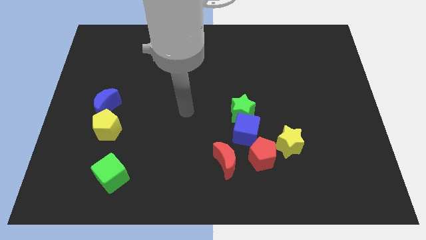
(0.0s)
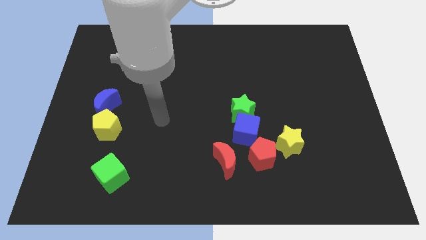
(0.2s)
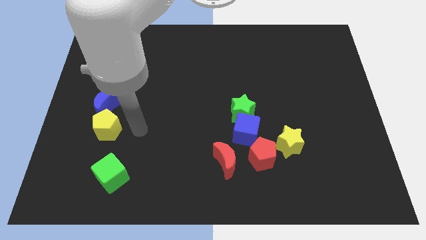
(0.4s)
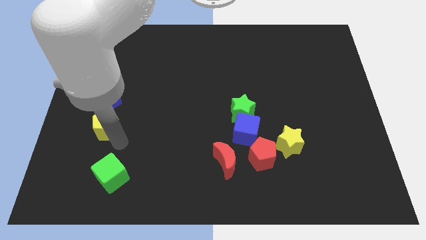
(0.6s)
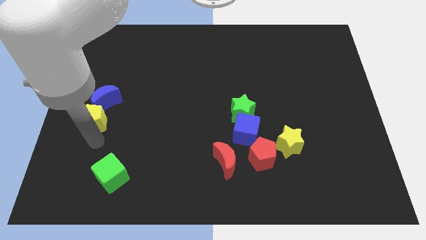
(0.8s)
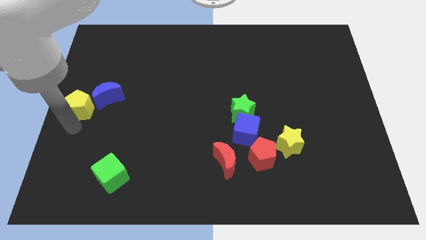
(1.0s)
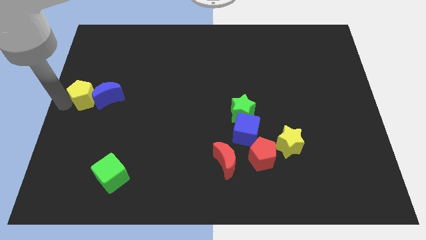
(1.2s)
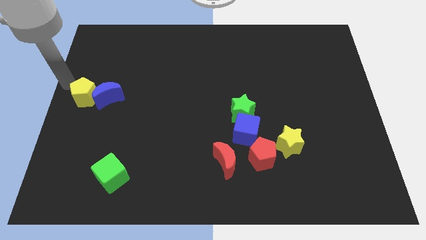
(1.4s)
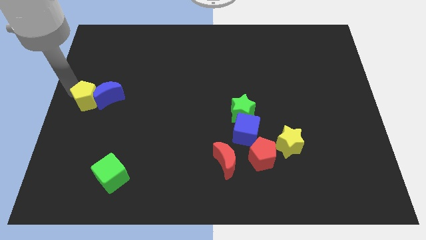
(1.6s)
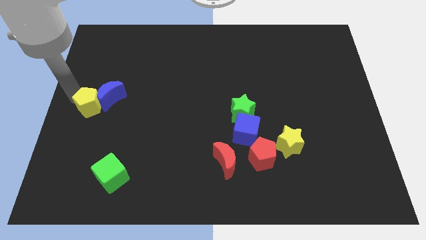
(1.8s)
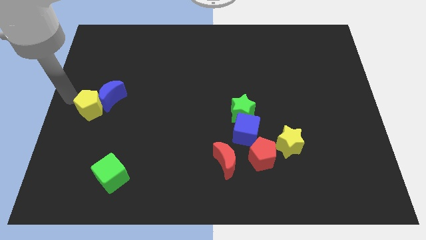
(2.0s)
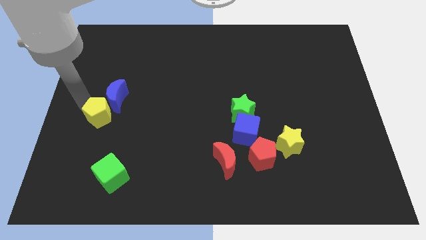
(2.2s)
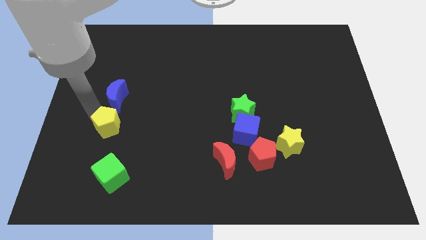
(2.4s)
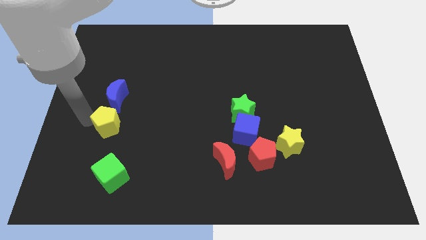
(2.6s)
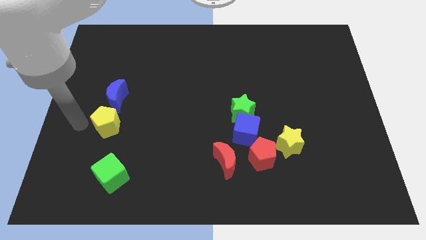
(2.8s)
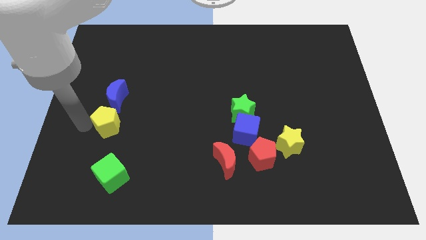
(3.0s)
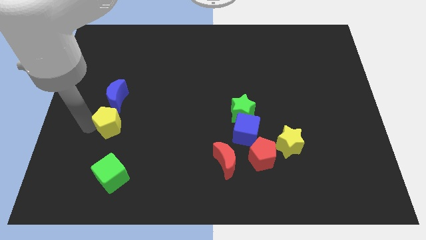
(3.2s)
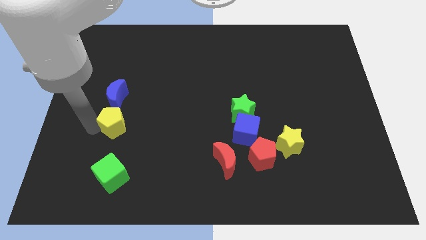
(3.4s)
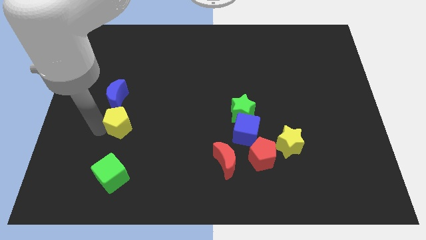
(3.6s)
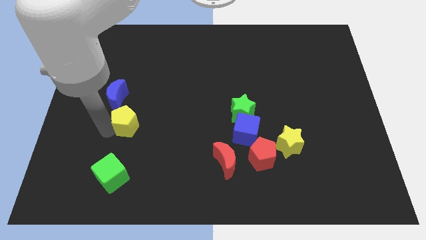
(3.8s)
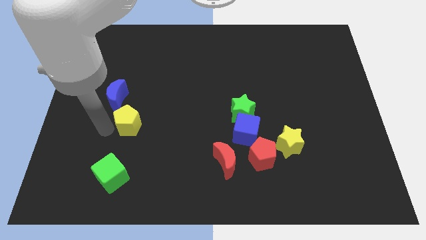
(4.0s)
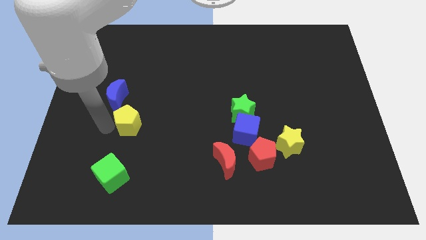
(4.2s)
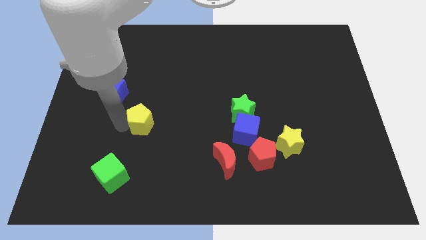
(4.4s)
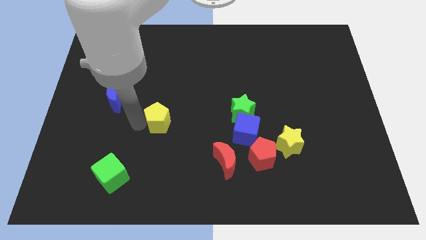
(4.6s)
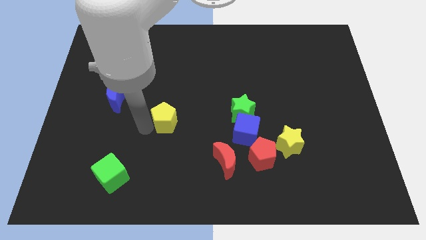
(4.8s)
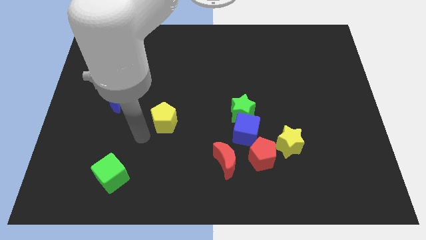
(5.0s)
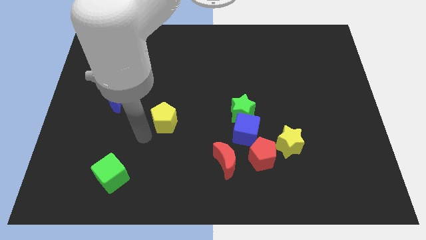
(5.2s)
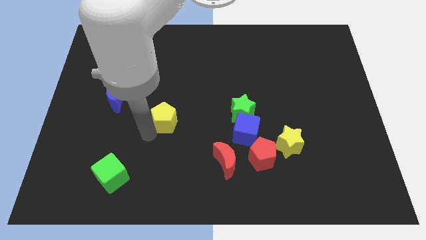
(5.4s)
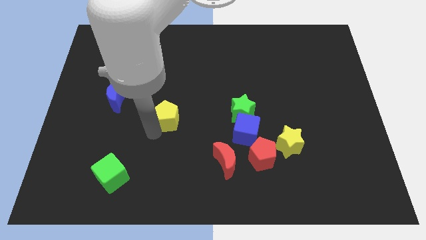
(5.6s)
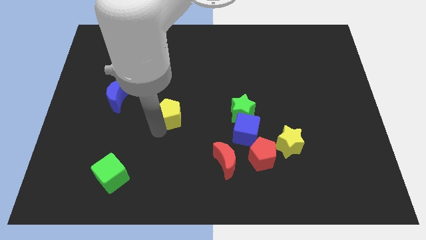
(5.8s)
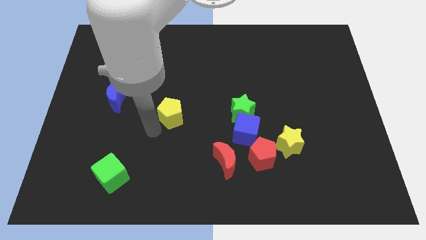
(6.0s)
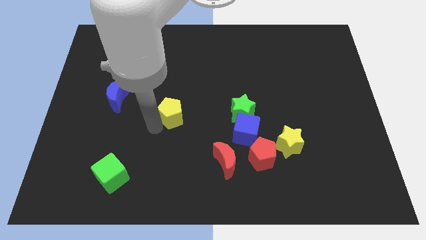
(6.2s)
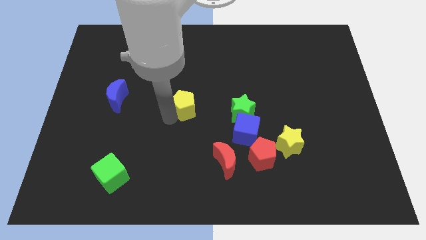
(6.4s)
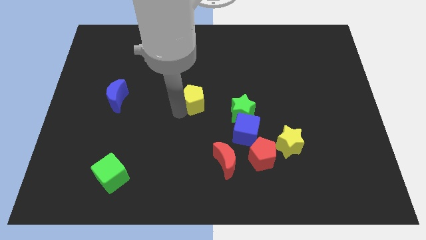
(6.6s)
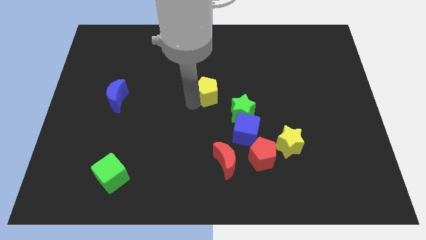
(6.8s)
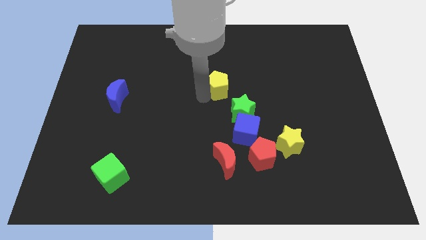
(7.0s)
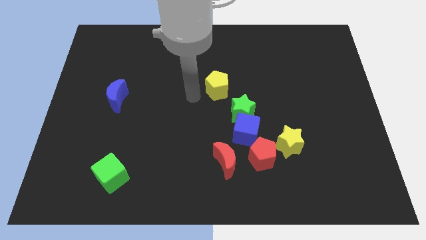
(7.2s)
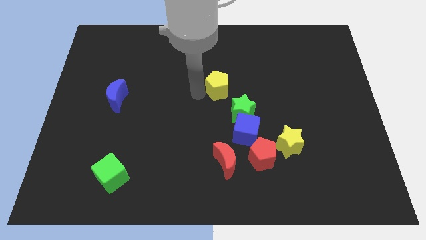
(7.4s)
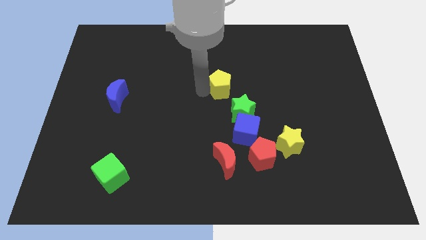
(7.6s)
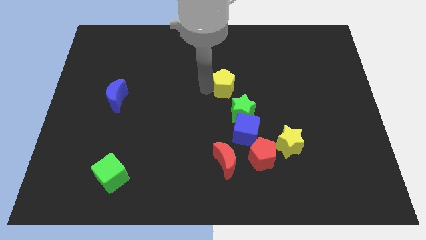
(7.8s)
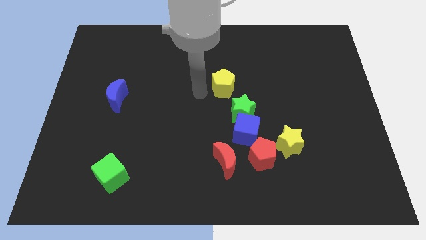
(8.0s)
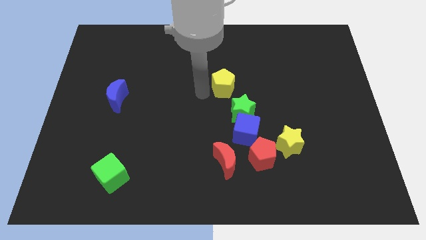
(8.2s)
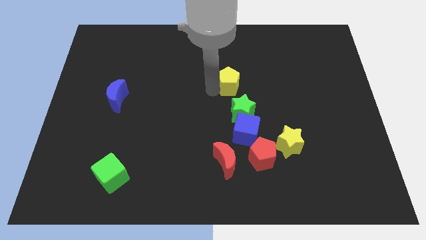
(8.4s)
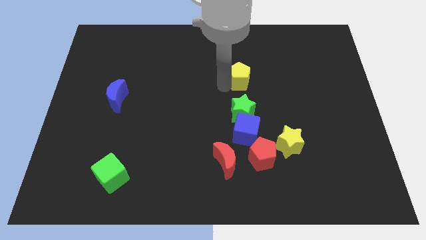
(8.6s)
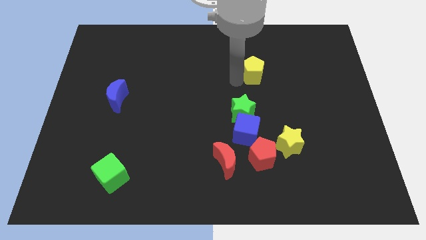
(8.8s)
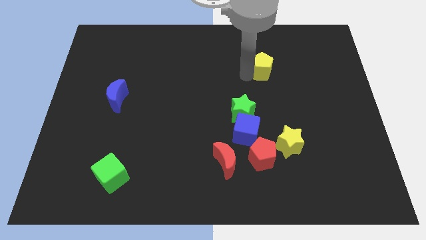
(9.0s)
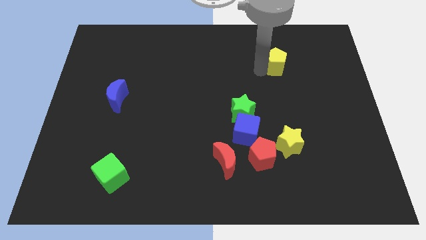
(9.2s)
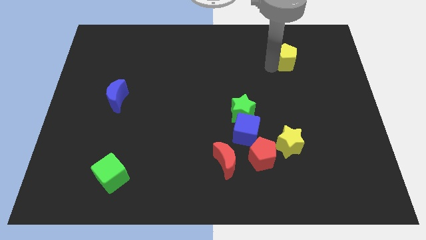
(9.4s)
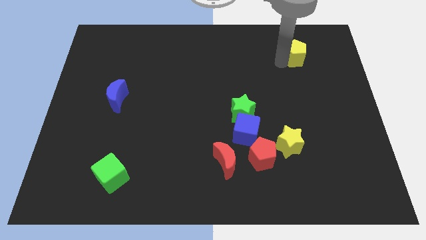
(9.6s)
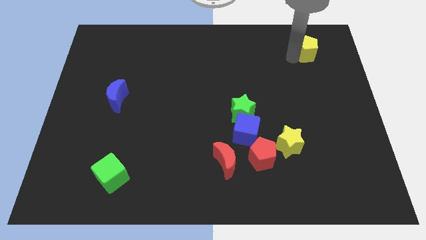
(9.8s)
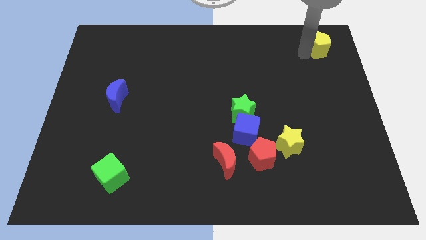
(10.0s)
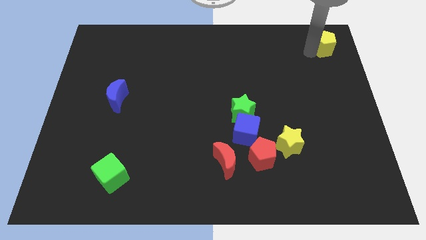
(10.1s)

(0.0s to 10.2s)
put the yellow pentagon to the top right

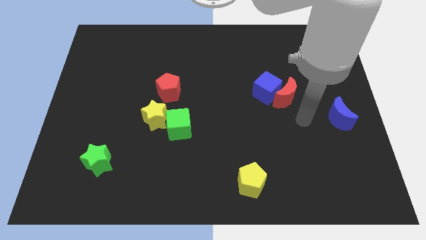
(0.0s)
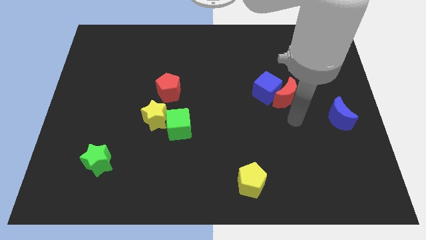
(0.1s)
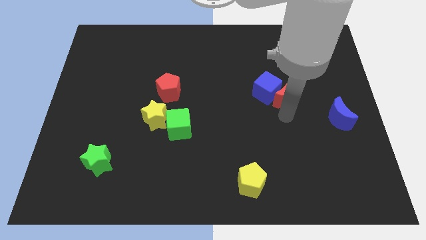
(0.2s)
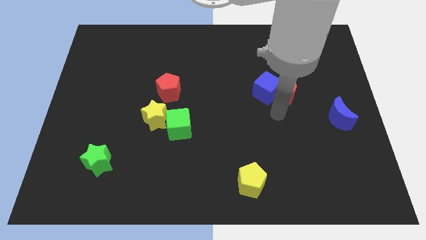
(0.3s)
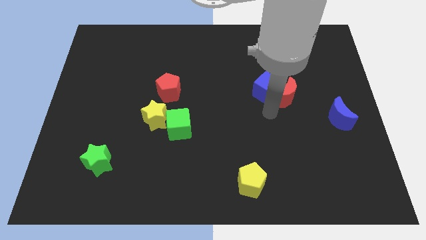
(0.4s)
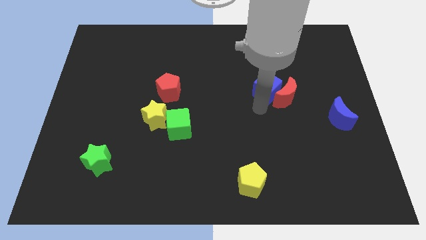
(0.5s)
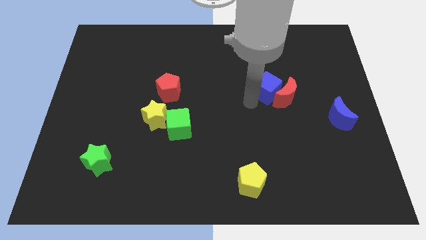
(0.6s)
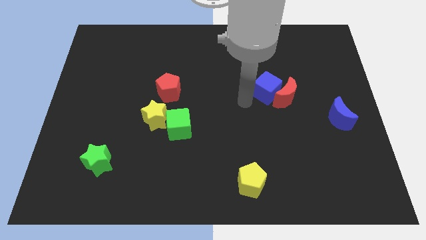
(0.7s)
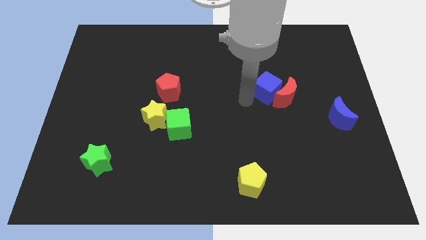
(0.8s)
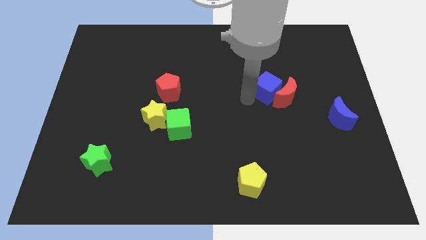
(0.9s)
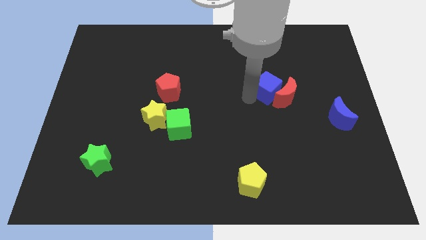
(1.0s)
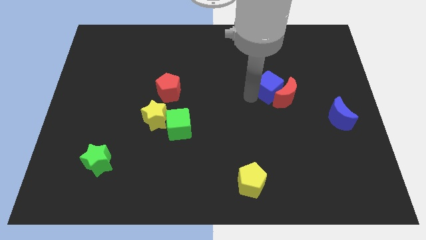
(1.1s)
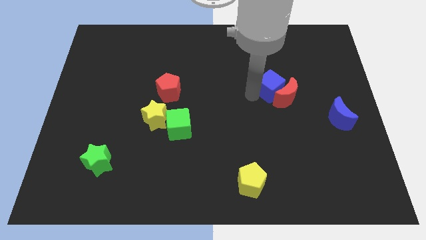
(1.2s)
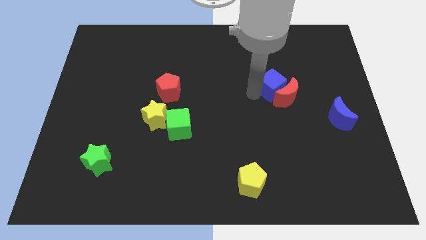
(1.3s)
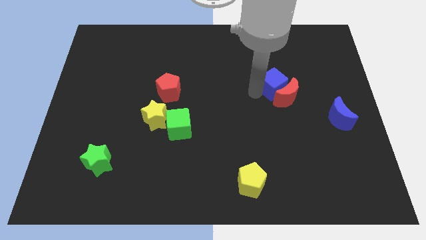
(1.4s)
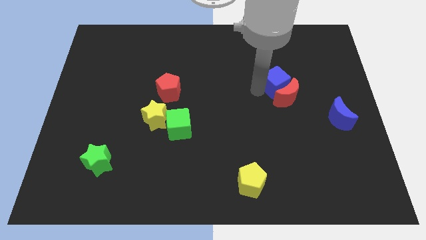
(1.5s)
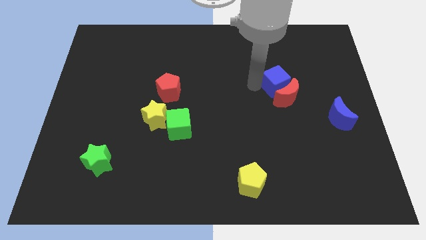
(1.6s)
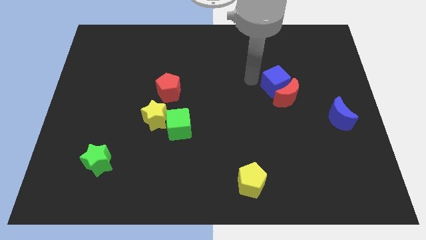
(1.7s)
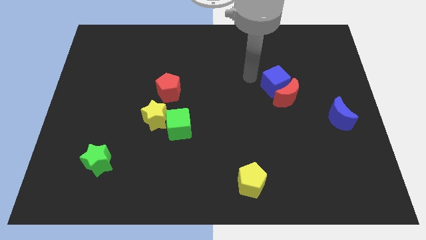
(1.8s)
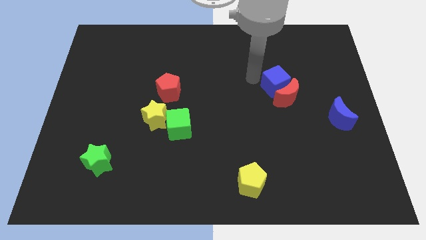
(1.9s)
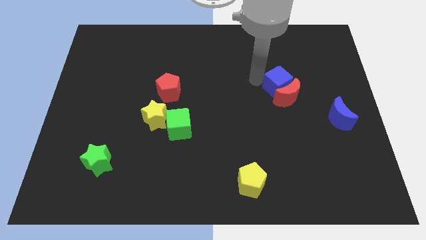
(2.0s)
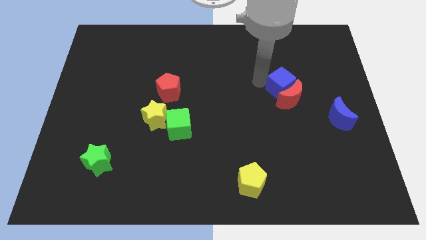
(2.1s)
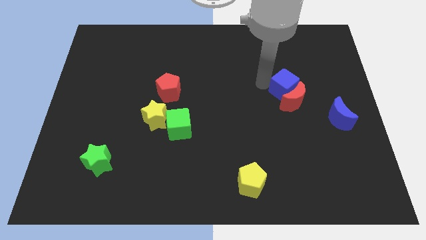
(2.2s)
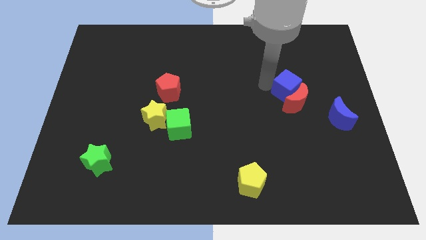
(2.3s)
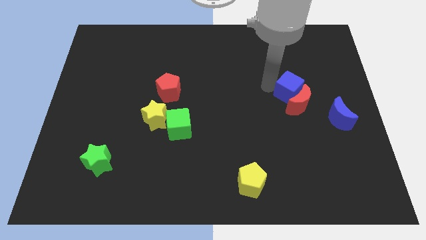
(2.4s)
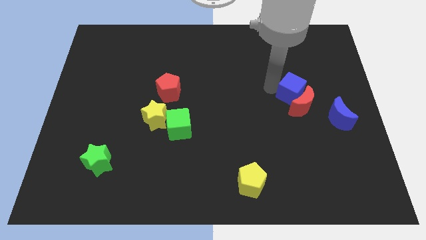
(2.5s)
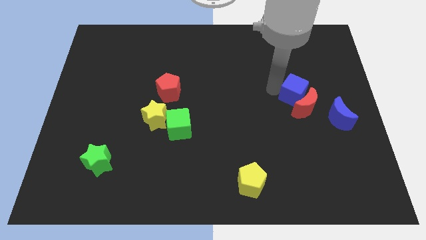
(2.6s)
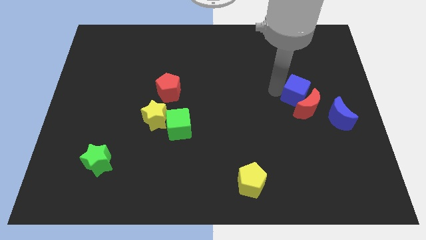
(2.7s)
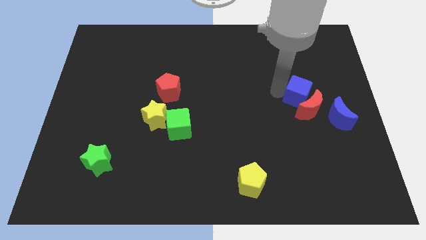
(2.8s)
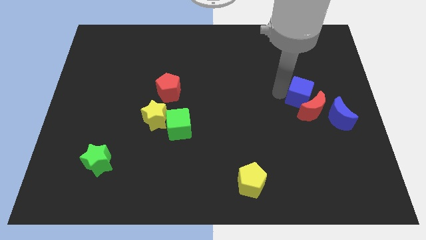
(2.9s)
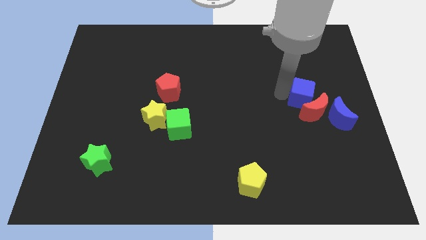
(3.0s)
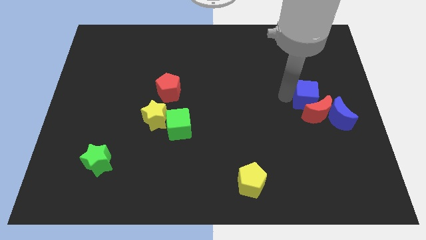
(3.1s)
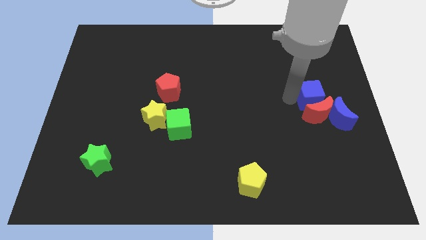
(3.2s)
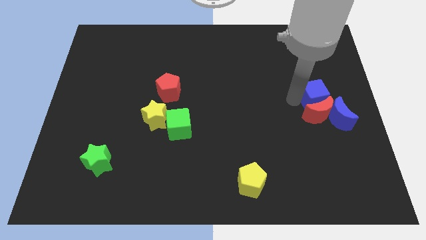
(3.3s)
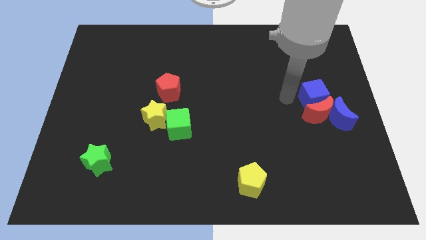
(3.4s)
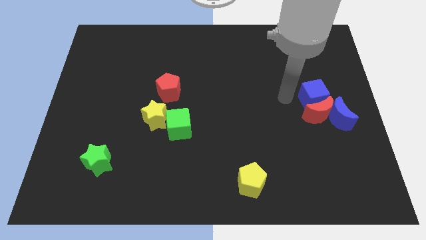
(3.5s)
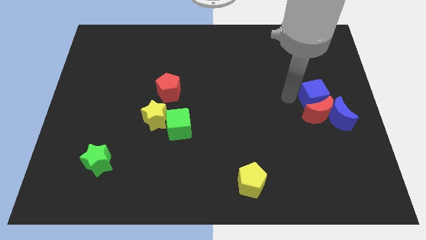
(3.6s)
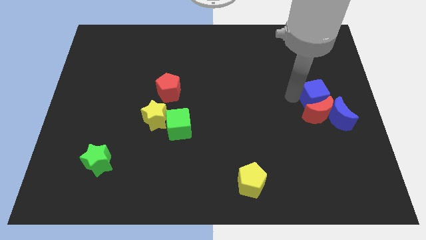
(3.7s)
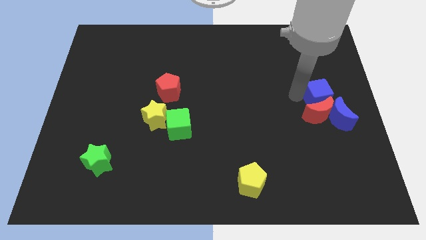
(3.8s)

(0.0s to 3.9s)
push the blue cube to the right side
